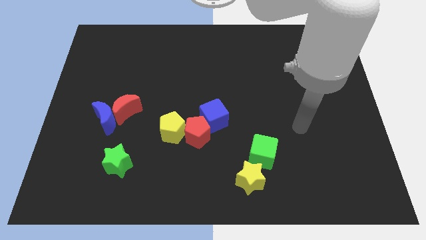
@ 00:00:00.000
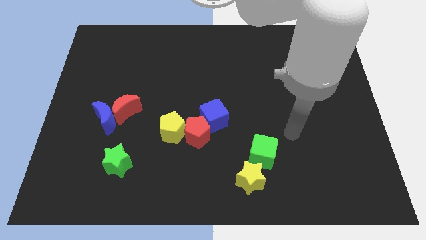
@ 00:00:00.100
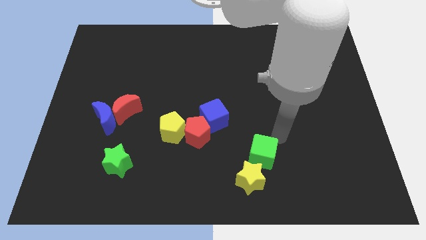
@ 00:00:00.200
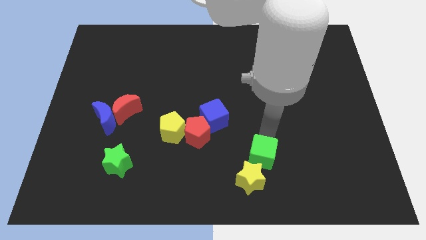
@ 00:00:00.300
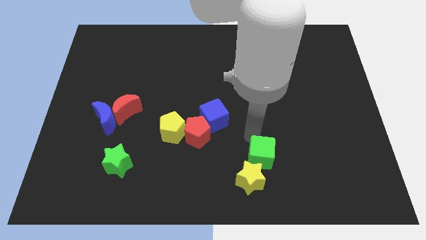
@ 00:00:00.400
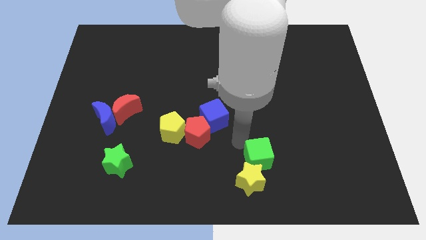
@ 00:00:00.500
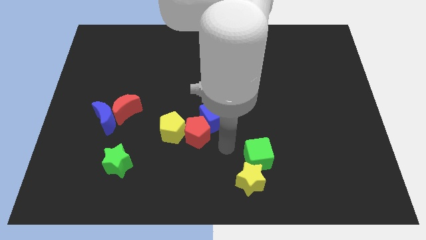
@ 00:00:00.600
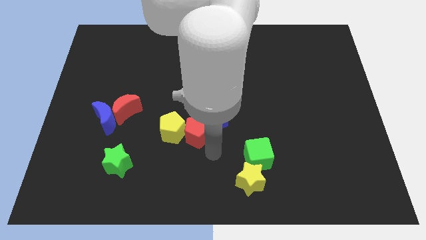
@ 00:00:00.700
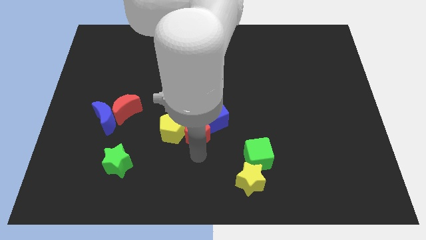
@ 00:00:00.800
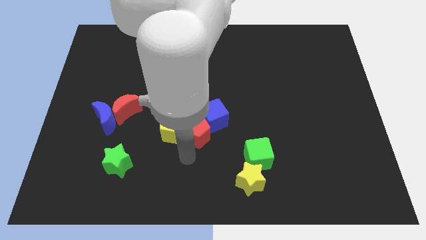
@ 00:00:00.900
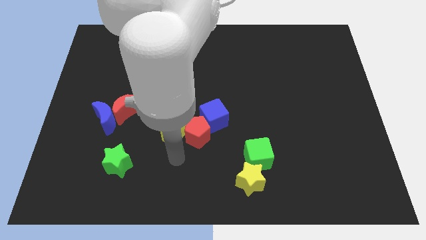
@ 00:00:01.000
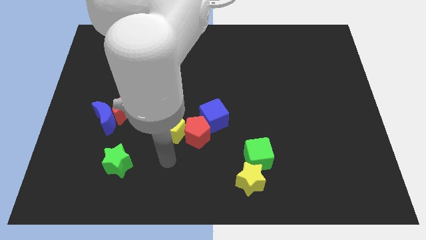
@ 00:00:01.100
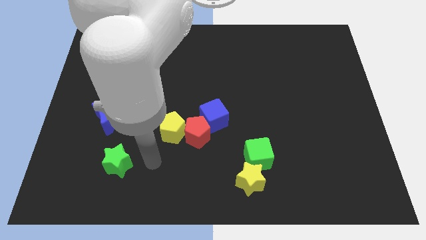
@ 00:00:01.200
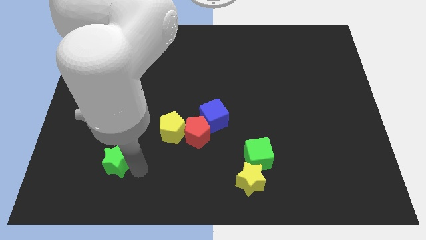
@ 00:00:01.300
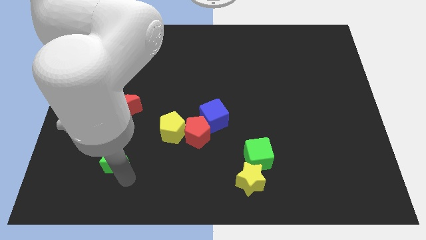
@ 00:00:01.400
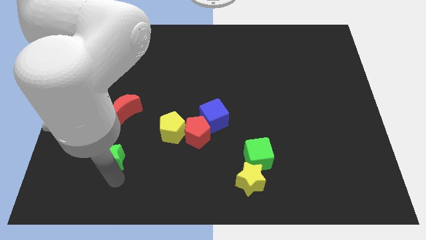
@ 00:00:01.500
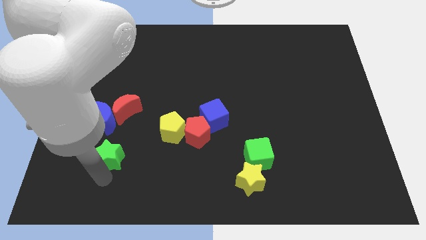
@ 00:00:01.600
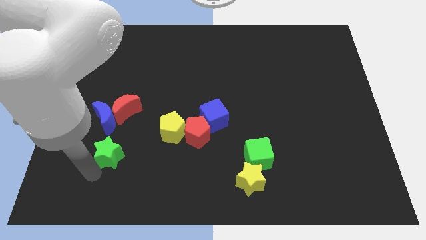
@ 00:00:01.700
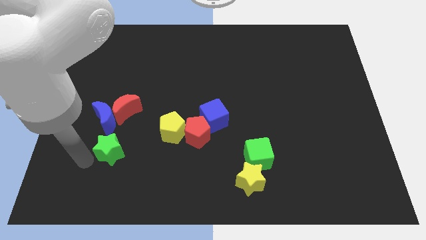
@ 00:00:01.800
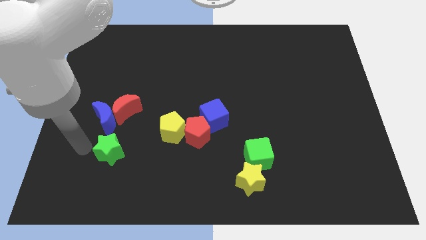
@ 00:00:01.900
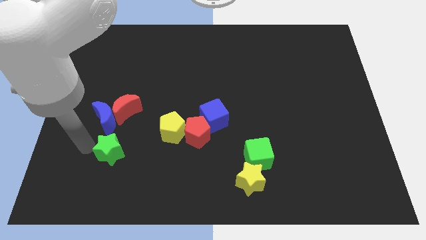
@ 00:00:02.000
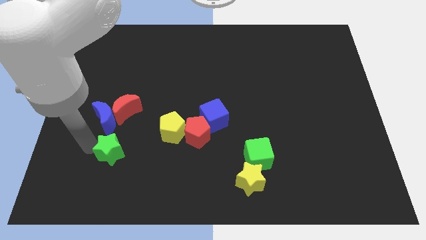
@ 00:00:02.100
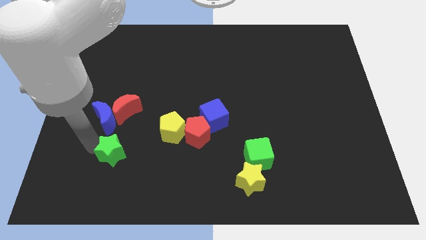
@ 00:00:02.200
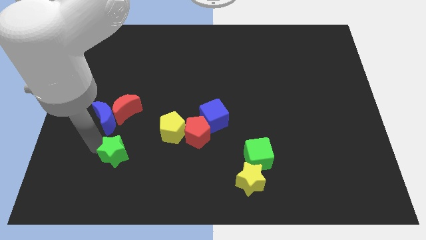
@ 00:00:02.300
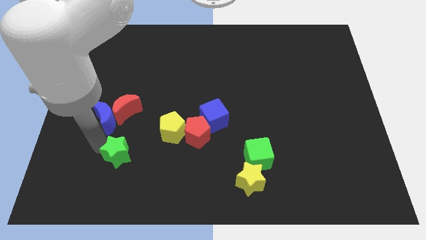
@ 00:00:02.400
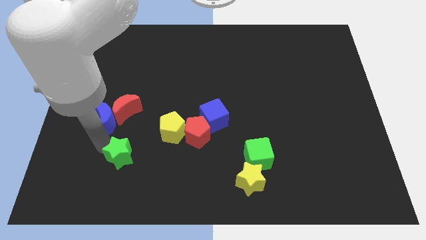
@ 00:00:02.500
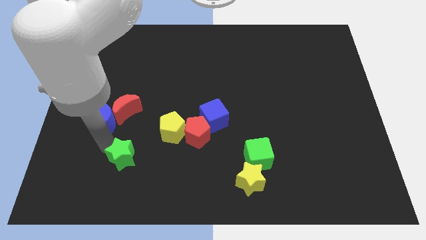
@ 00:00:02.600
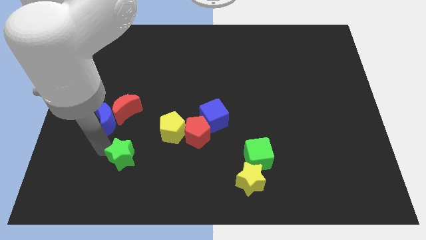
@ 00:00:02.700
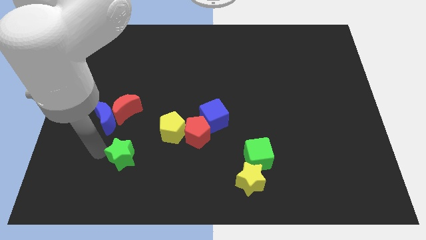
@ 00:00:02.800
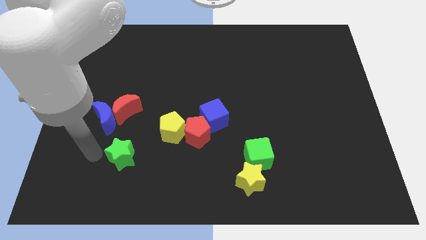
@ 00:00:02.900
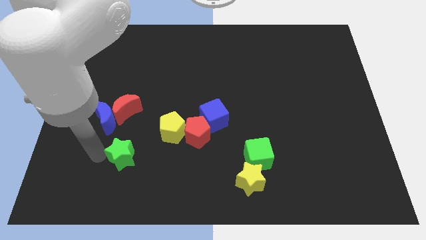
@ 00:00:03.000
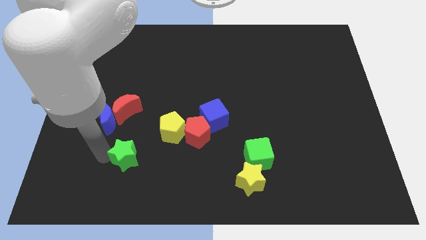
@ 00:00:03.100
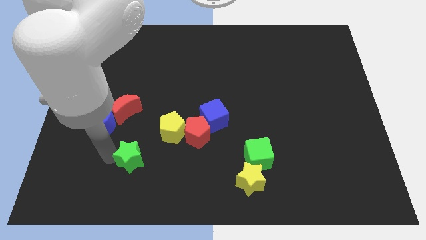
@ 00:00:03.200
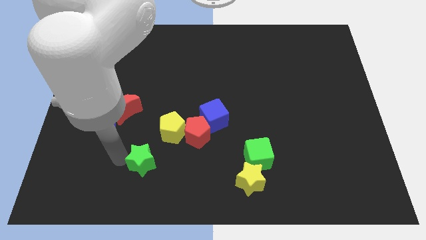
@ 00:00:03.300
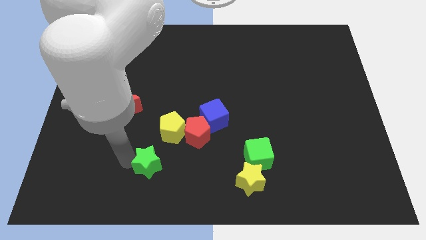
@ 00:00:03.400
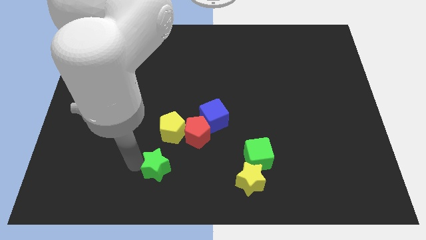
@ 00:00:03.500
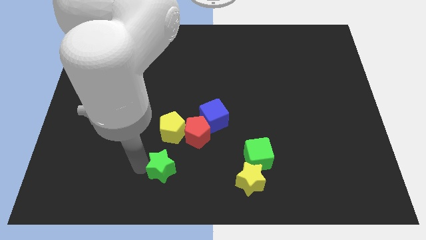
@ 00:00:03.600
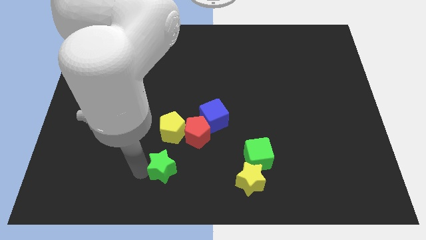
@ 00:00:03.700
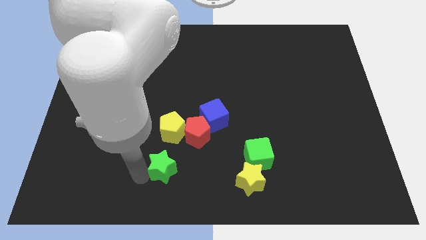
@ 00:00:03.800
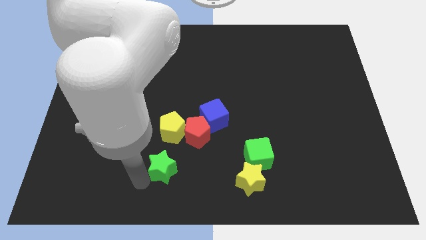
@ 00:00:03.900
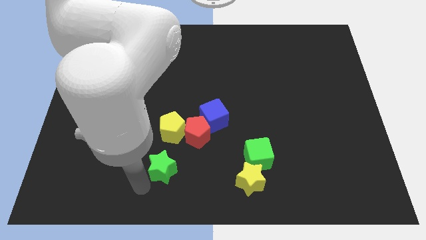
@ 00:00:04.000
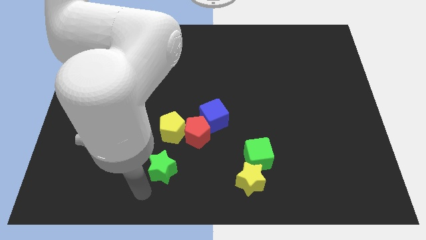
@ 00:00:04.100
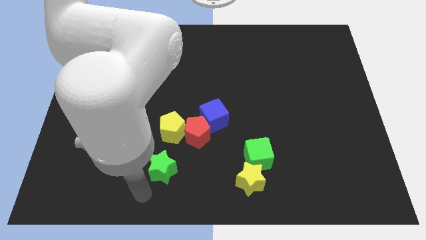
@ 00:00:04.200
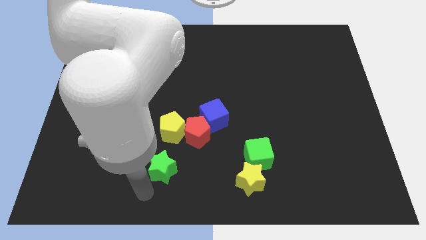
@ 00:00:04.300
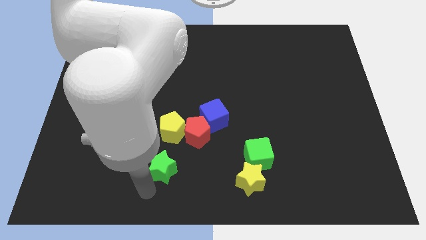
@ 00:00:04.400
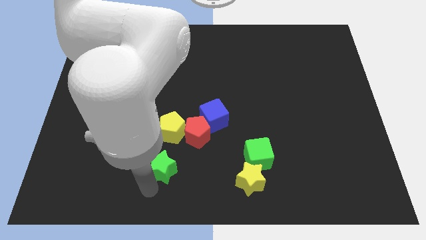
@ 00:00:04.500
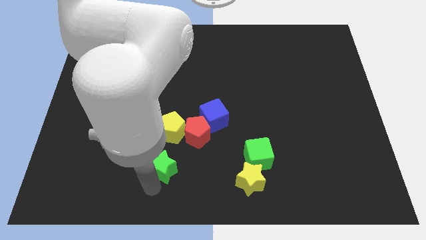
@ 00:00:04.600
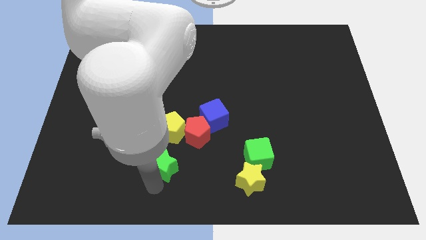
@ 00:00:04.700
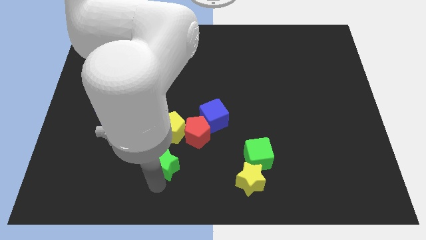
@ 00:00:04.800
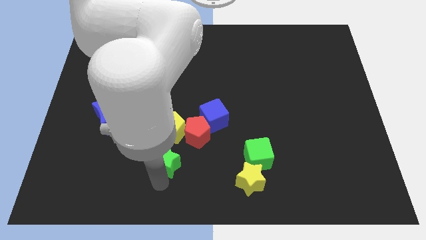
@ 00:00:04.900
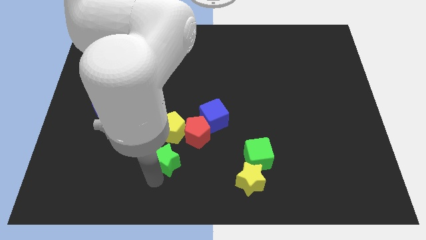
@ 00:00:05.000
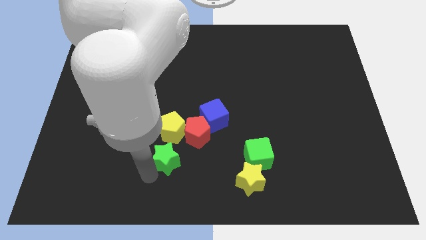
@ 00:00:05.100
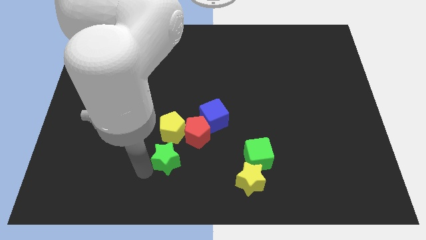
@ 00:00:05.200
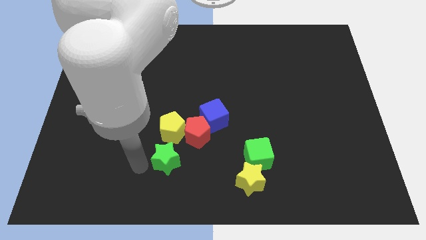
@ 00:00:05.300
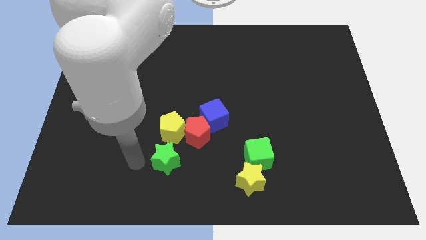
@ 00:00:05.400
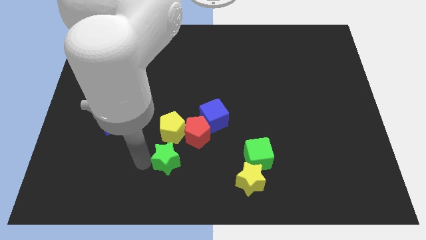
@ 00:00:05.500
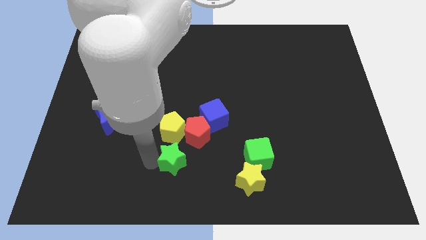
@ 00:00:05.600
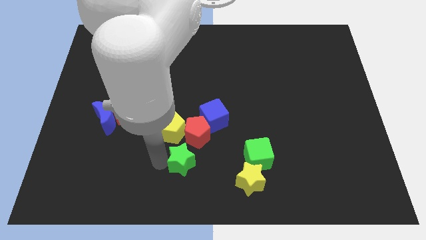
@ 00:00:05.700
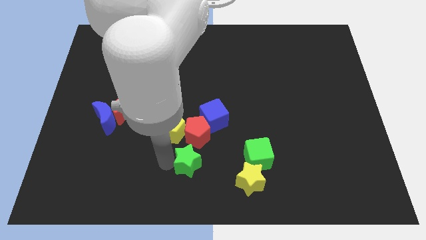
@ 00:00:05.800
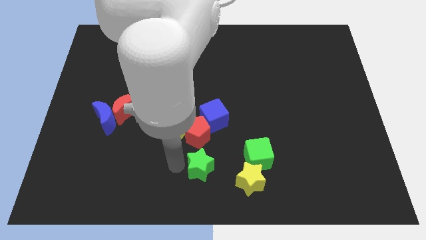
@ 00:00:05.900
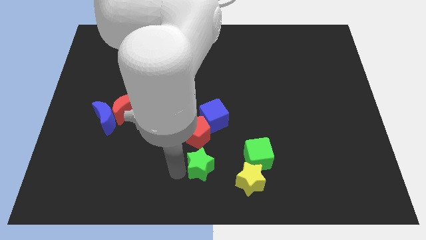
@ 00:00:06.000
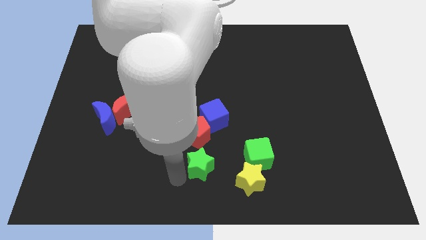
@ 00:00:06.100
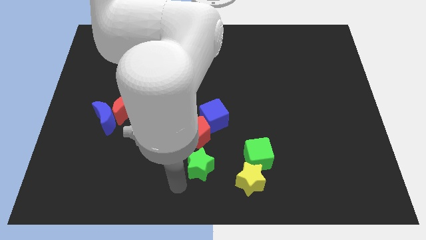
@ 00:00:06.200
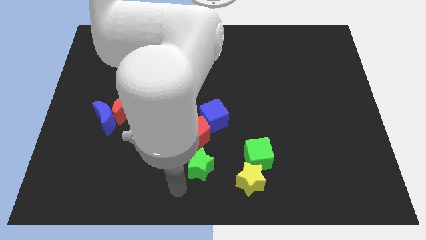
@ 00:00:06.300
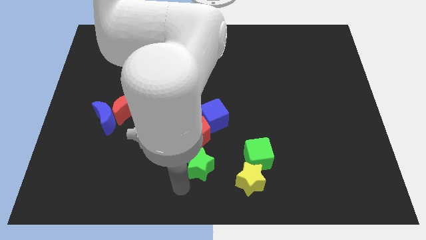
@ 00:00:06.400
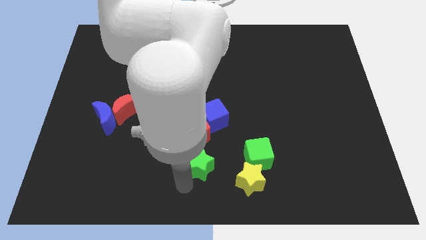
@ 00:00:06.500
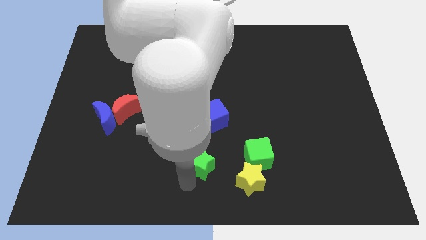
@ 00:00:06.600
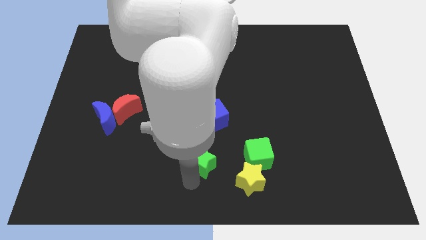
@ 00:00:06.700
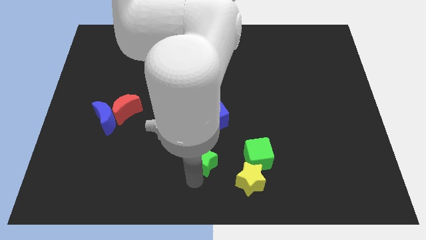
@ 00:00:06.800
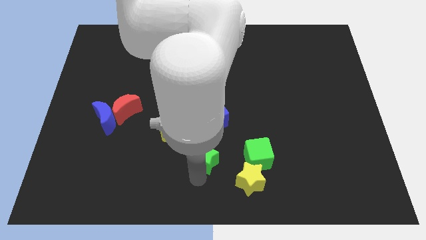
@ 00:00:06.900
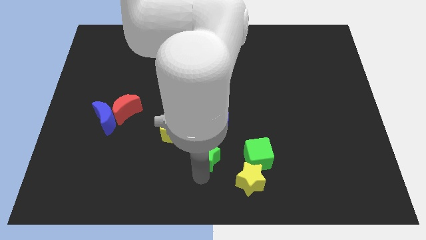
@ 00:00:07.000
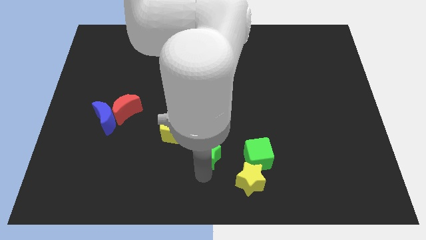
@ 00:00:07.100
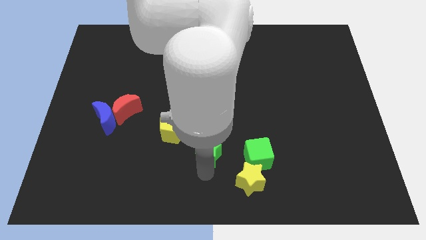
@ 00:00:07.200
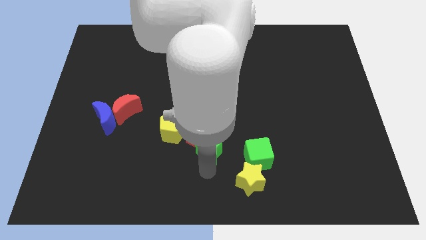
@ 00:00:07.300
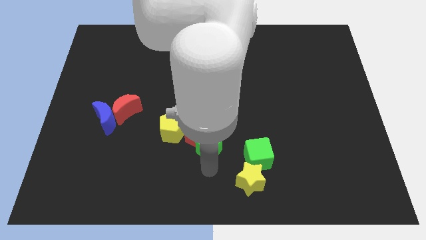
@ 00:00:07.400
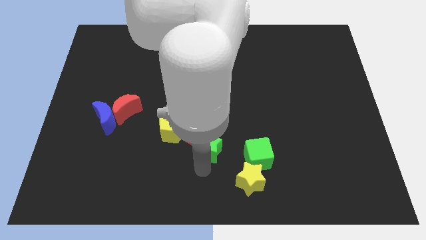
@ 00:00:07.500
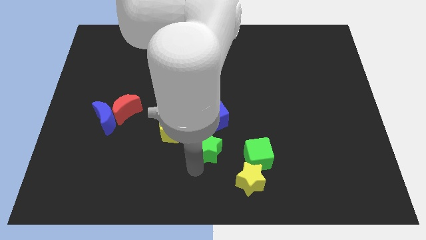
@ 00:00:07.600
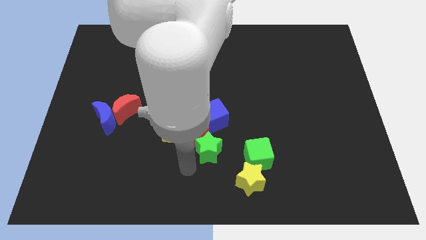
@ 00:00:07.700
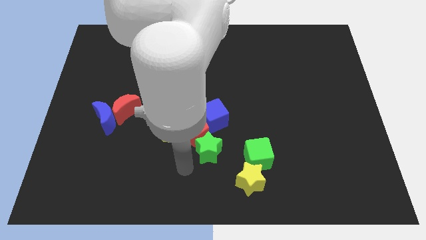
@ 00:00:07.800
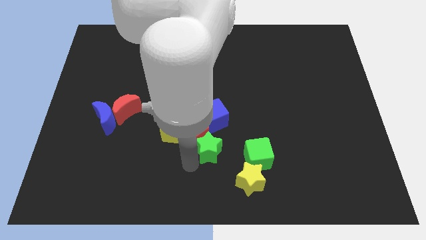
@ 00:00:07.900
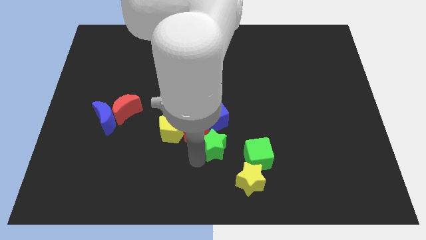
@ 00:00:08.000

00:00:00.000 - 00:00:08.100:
slide the green star diagonally up and to the left of the green cube

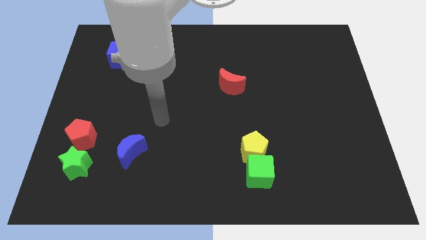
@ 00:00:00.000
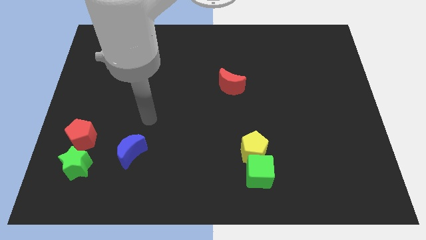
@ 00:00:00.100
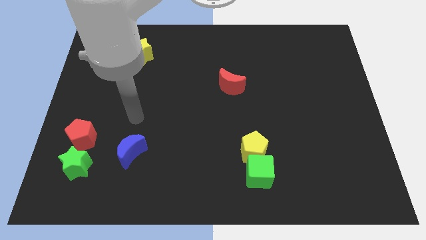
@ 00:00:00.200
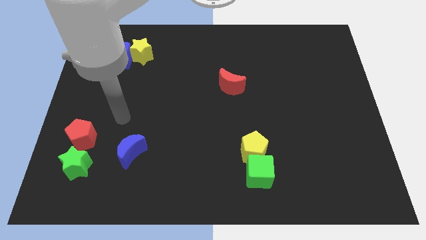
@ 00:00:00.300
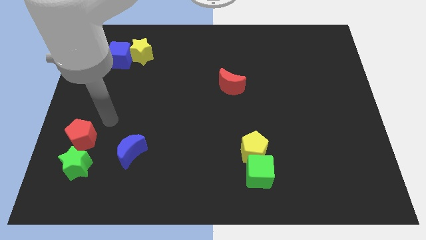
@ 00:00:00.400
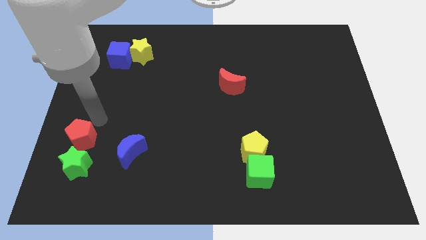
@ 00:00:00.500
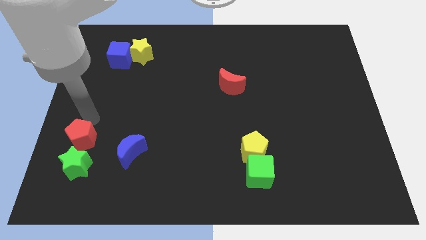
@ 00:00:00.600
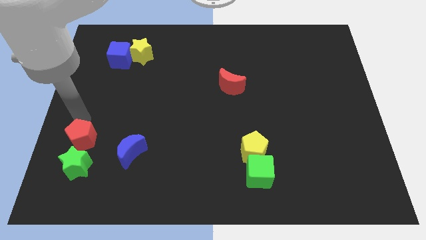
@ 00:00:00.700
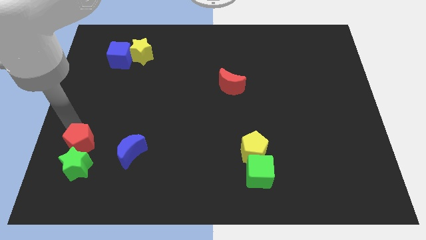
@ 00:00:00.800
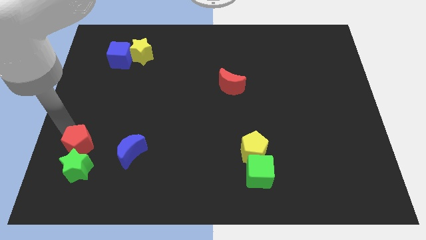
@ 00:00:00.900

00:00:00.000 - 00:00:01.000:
push the green star diagonally down and to the left of the blue moon
